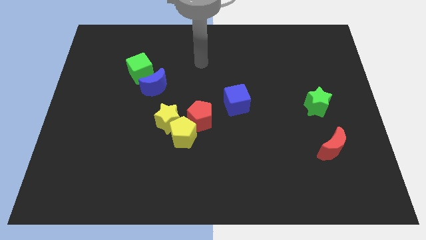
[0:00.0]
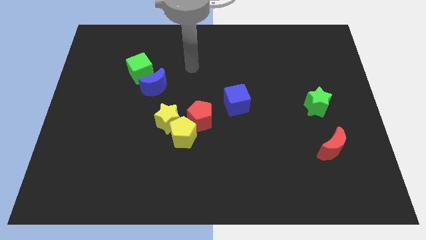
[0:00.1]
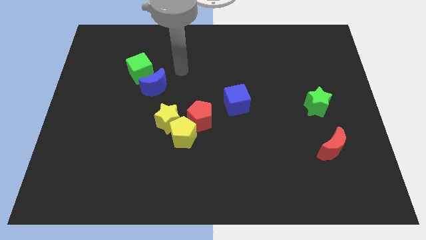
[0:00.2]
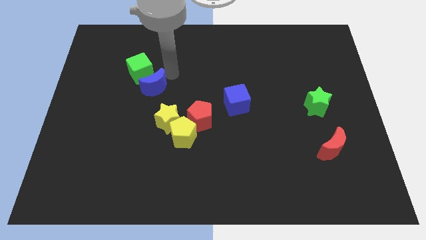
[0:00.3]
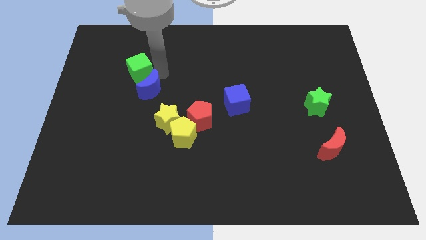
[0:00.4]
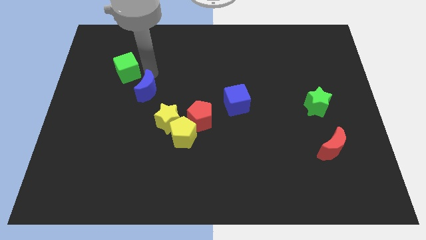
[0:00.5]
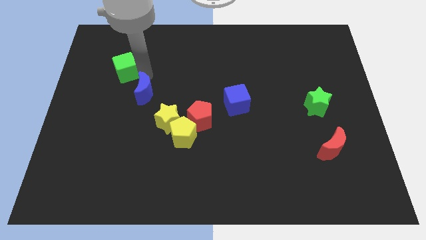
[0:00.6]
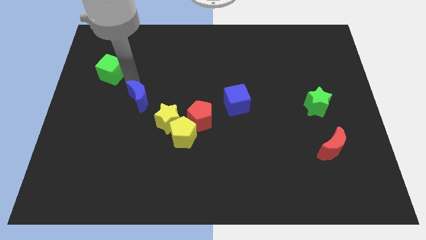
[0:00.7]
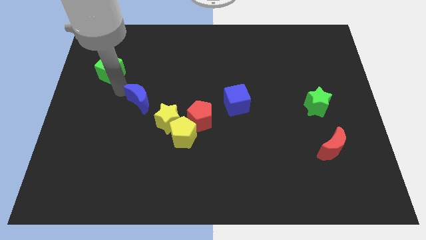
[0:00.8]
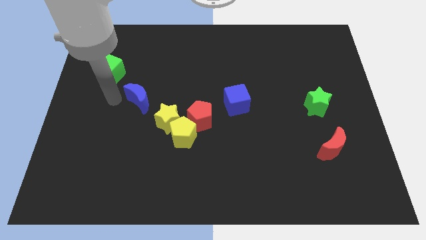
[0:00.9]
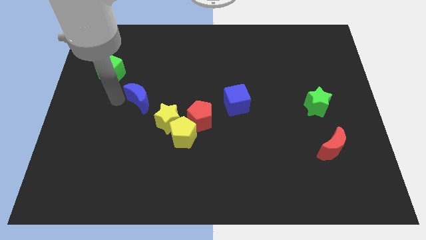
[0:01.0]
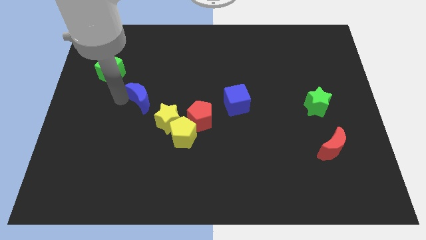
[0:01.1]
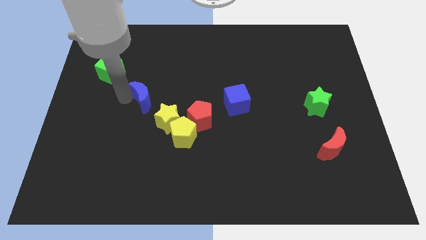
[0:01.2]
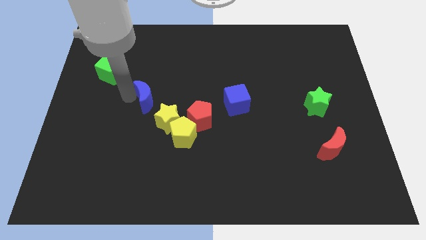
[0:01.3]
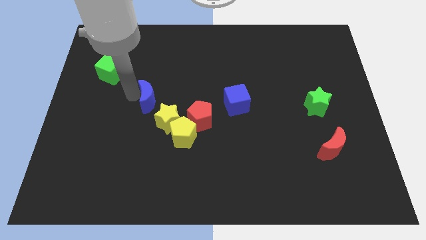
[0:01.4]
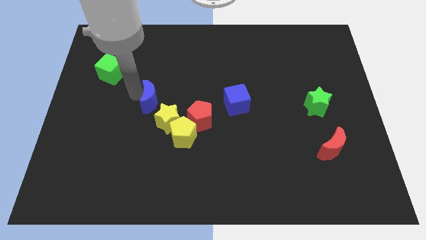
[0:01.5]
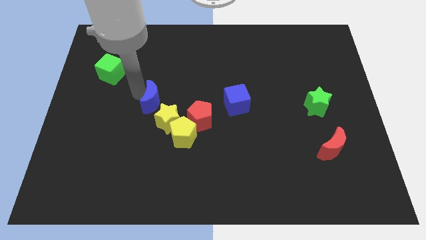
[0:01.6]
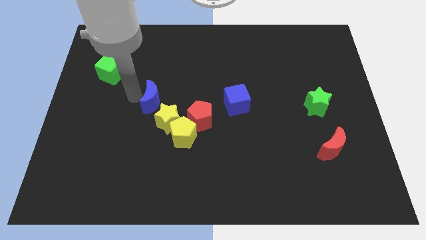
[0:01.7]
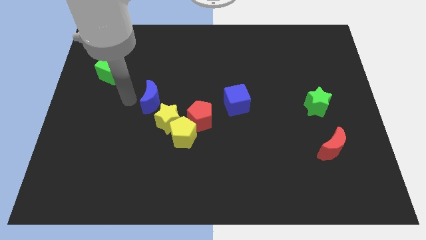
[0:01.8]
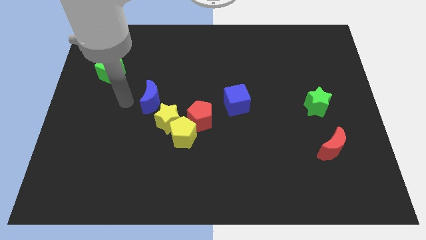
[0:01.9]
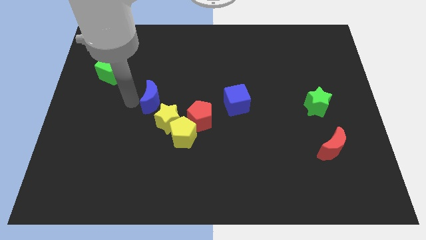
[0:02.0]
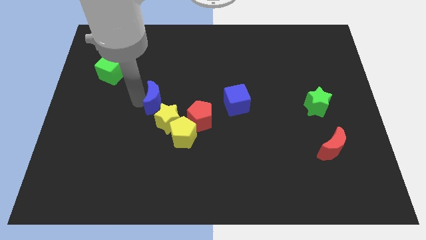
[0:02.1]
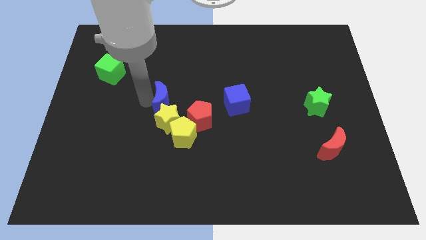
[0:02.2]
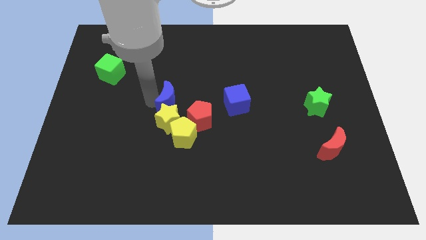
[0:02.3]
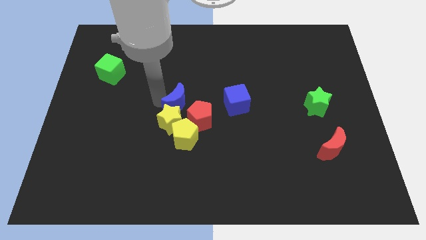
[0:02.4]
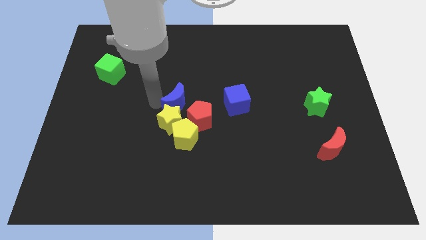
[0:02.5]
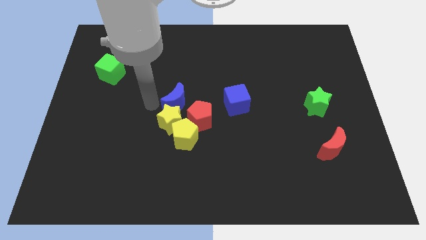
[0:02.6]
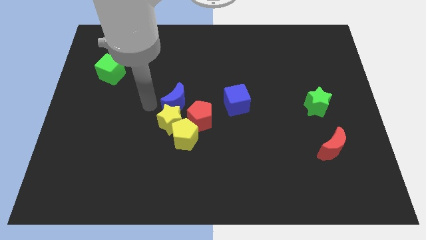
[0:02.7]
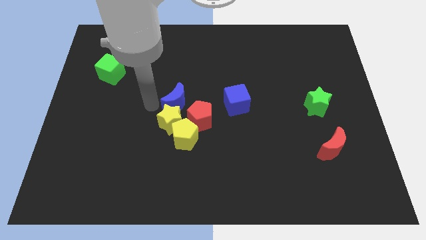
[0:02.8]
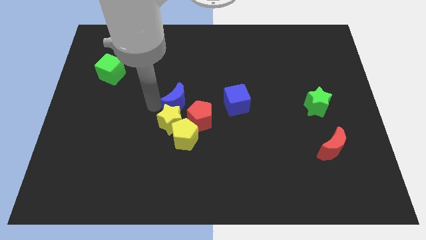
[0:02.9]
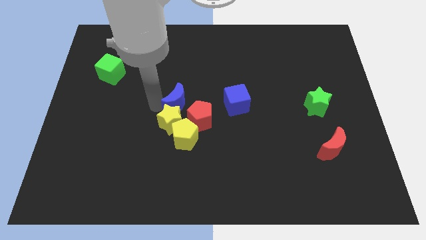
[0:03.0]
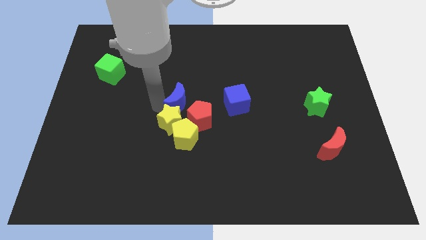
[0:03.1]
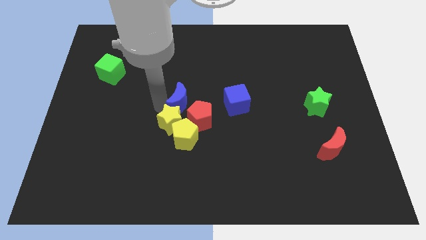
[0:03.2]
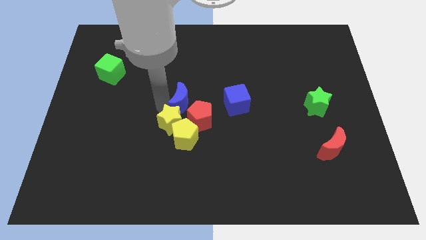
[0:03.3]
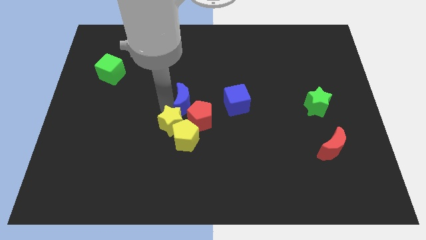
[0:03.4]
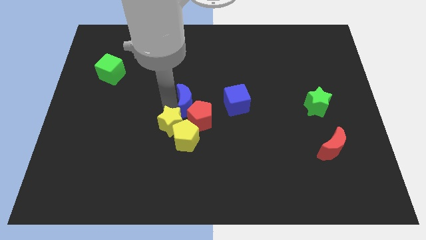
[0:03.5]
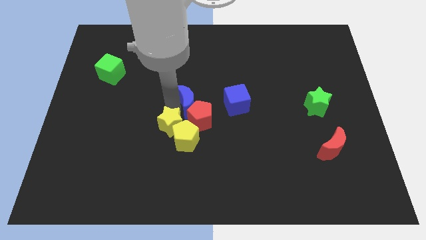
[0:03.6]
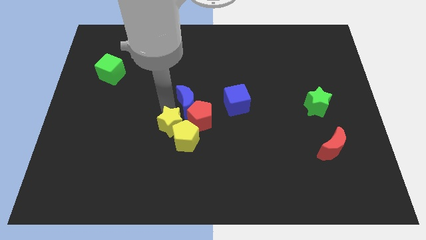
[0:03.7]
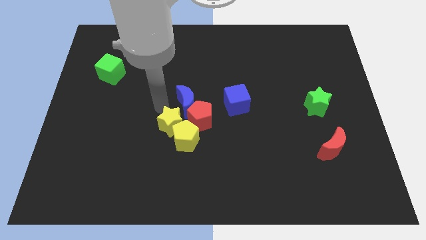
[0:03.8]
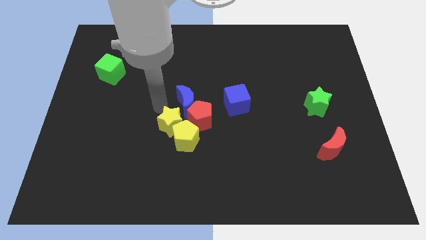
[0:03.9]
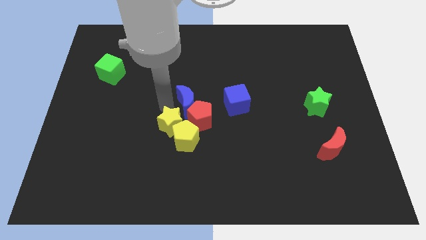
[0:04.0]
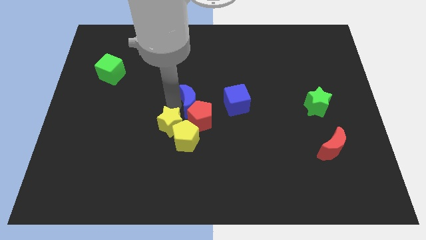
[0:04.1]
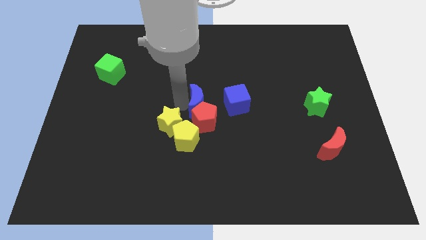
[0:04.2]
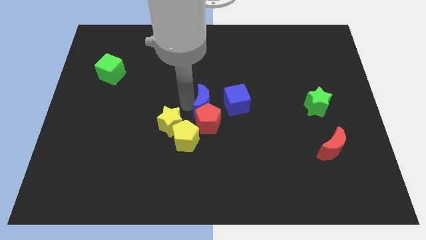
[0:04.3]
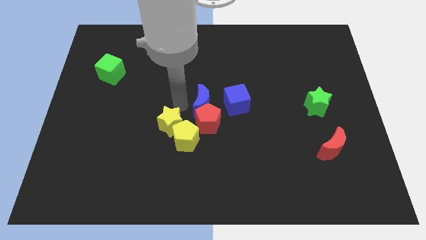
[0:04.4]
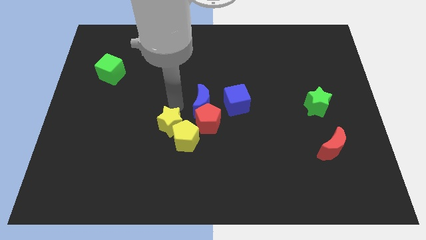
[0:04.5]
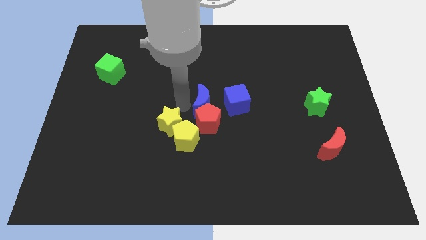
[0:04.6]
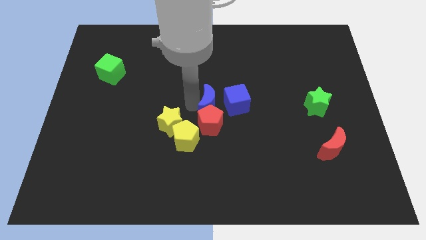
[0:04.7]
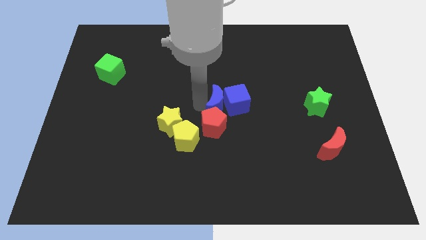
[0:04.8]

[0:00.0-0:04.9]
push the blue moon towards the blue cube

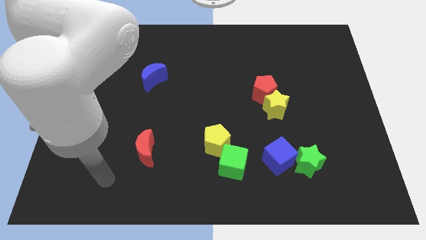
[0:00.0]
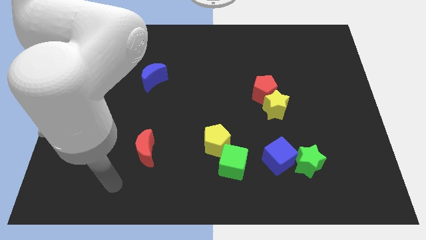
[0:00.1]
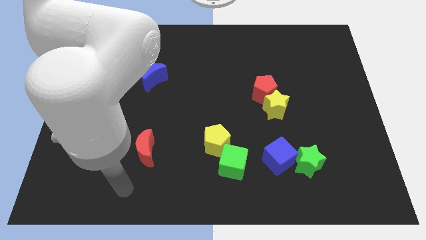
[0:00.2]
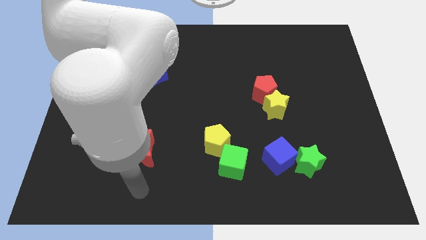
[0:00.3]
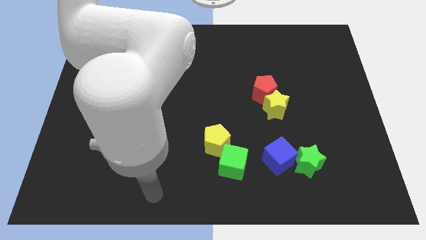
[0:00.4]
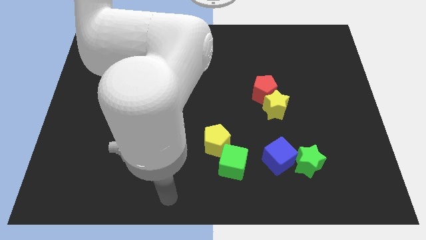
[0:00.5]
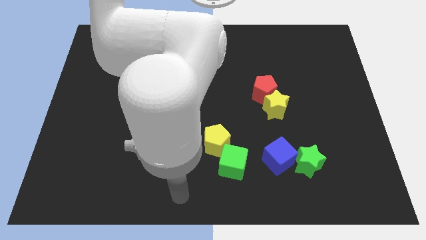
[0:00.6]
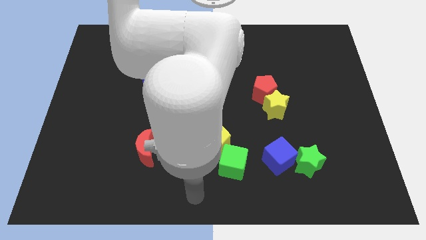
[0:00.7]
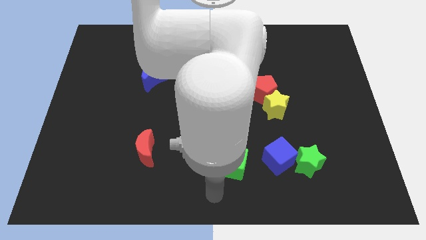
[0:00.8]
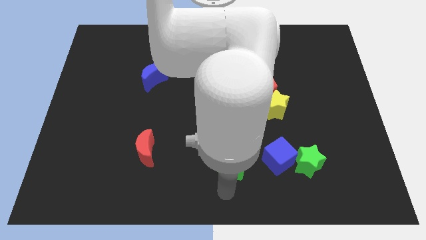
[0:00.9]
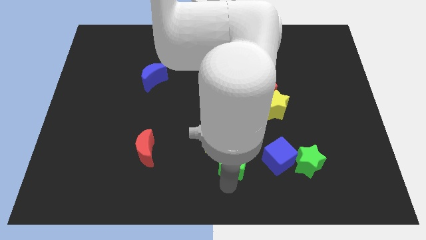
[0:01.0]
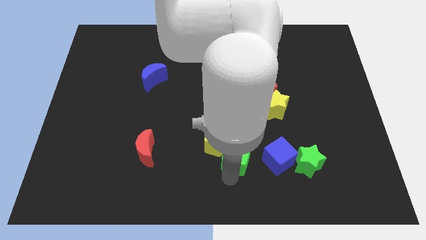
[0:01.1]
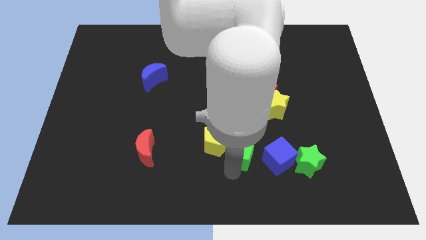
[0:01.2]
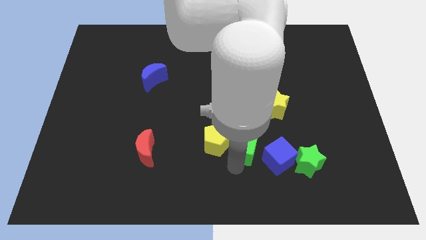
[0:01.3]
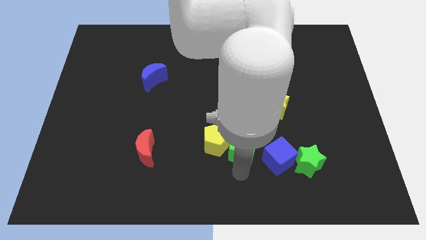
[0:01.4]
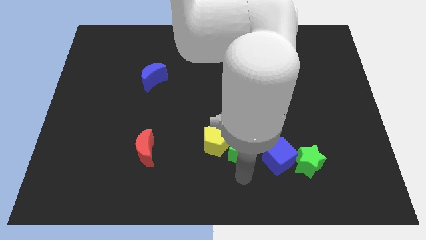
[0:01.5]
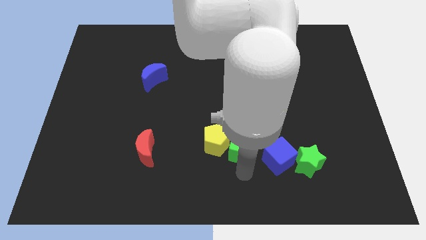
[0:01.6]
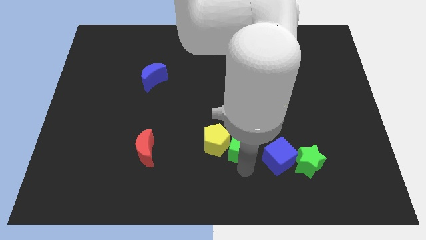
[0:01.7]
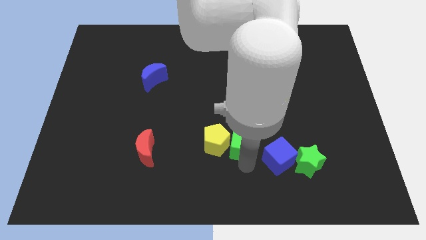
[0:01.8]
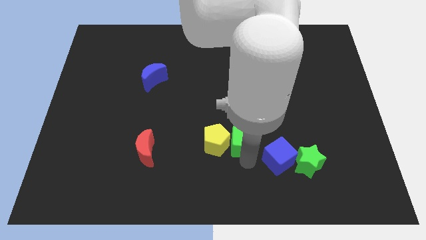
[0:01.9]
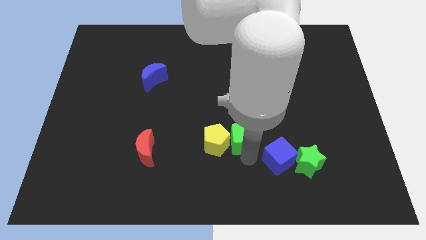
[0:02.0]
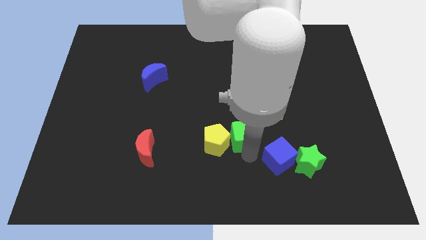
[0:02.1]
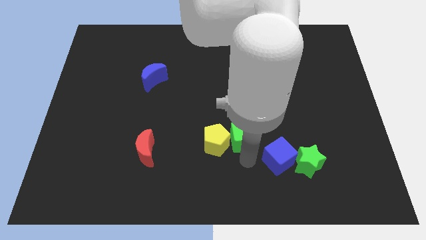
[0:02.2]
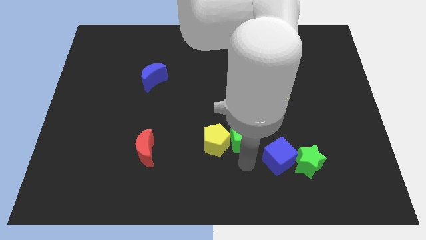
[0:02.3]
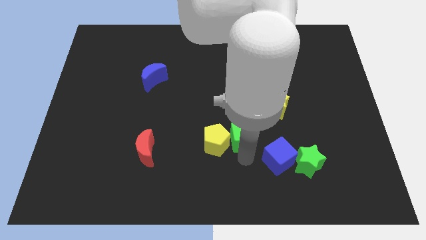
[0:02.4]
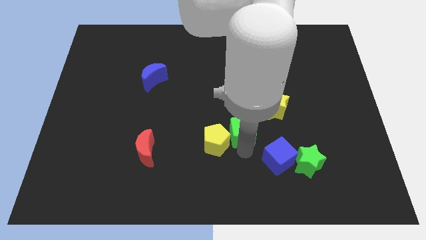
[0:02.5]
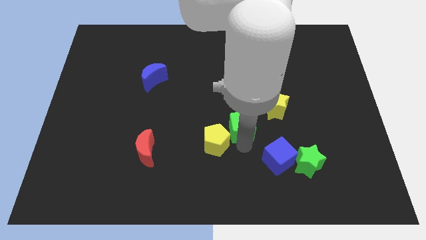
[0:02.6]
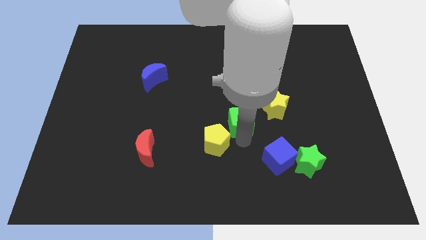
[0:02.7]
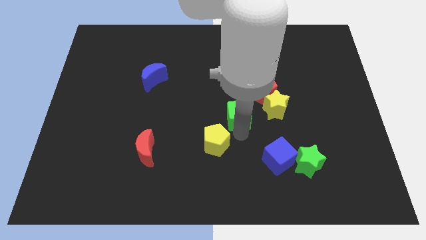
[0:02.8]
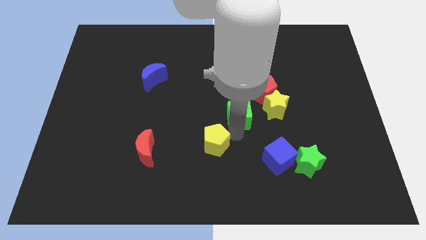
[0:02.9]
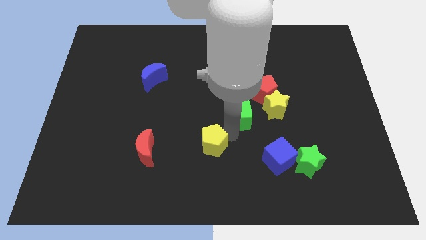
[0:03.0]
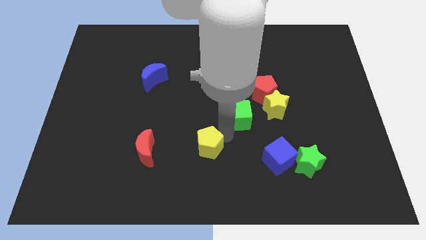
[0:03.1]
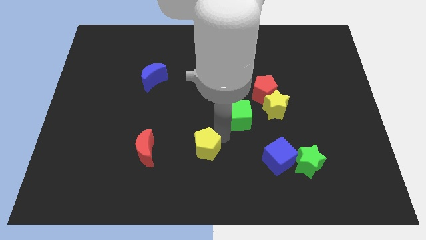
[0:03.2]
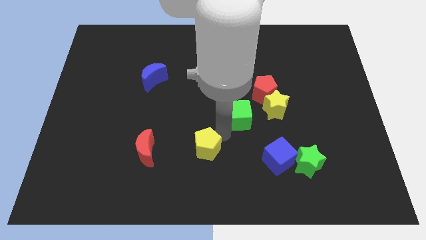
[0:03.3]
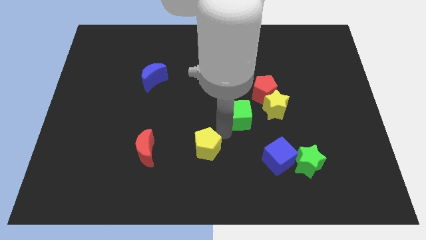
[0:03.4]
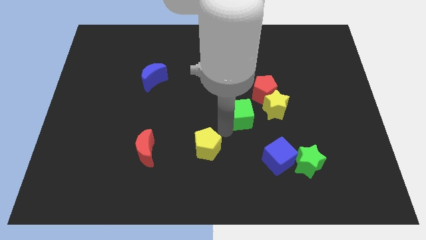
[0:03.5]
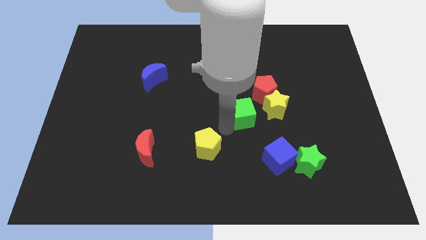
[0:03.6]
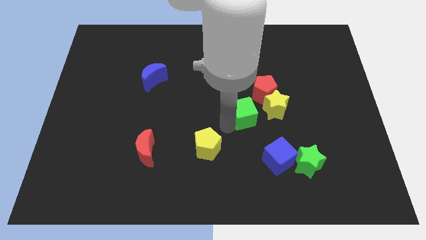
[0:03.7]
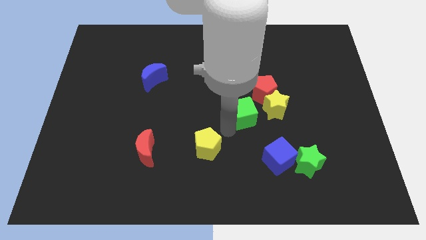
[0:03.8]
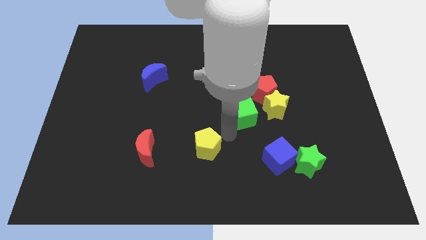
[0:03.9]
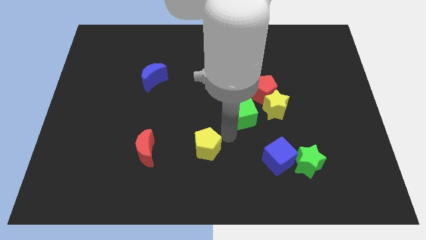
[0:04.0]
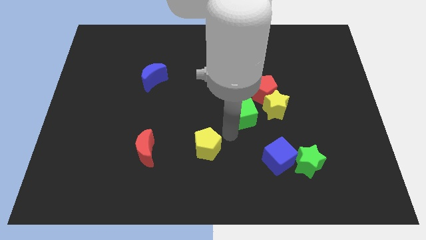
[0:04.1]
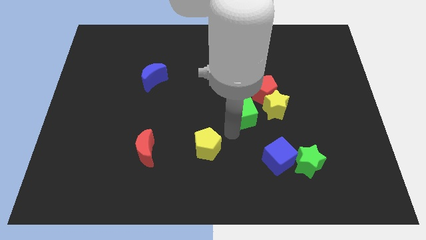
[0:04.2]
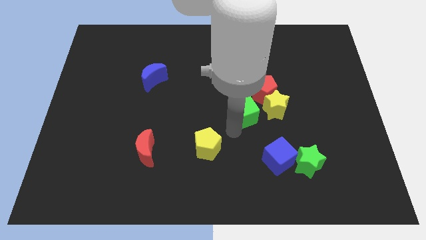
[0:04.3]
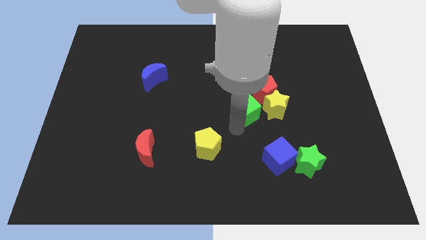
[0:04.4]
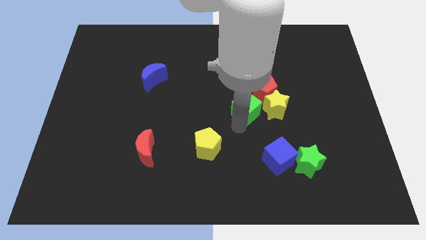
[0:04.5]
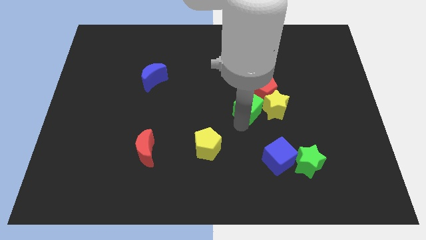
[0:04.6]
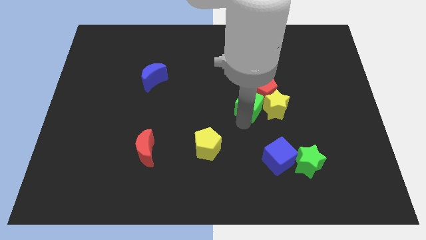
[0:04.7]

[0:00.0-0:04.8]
put the green cube to the red pentagon
